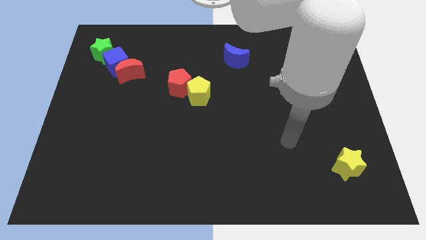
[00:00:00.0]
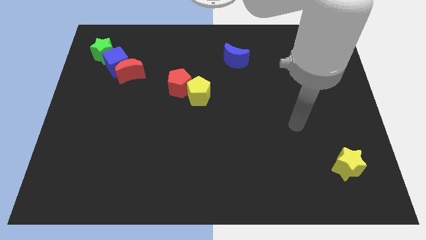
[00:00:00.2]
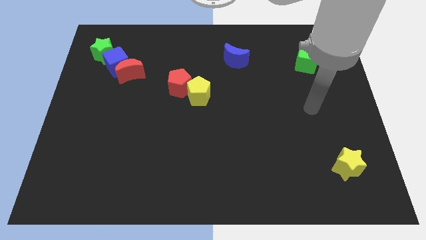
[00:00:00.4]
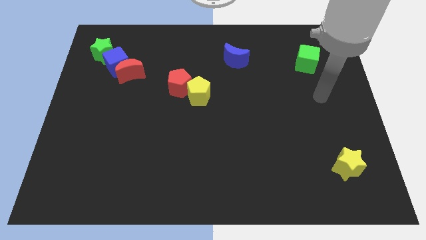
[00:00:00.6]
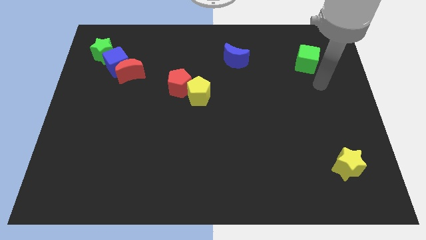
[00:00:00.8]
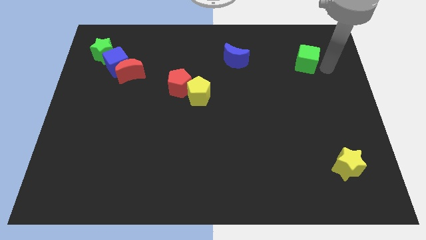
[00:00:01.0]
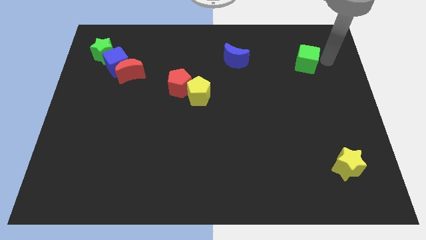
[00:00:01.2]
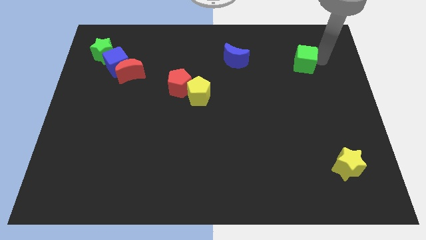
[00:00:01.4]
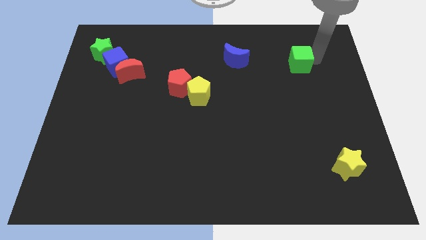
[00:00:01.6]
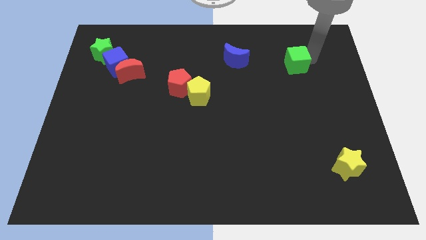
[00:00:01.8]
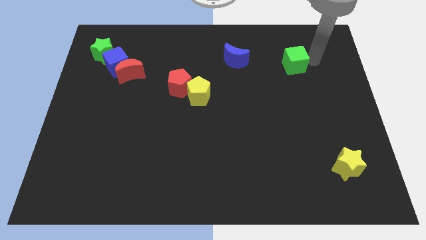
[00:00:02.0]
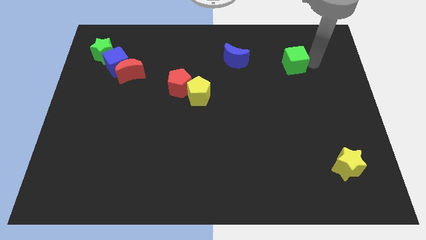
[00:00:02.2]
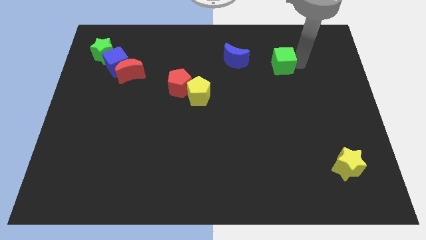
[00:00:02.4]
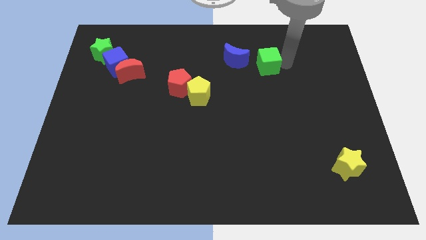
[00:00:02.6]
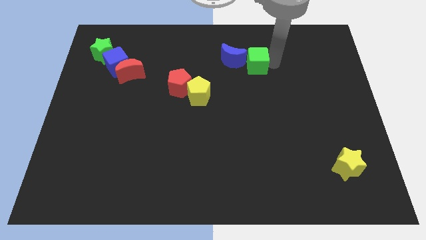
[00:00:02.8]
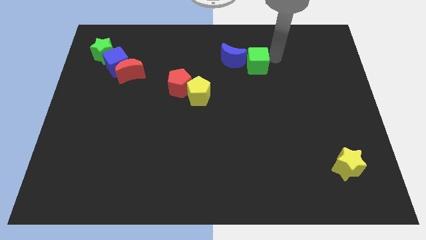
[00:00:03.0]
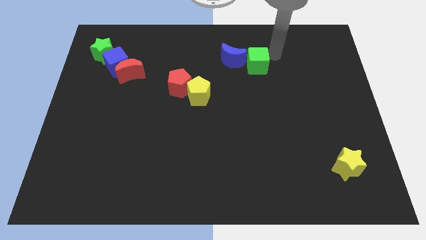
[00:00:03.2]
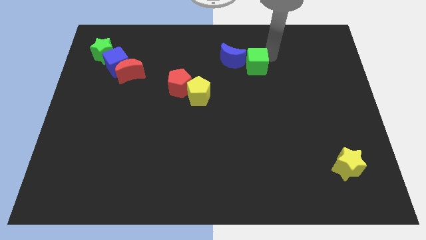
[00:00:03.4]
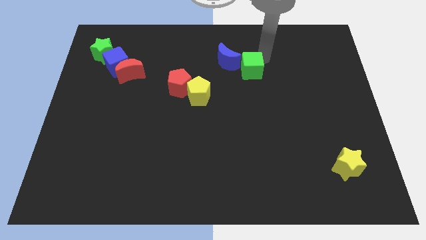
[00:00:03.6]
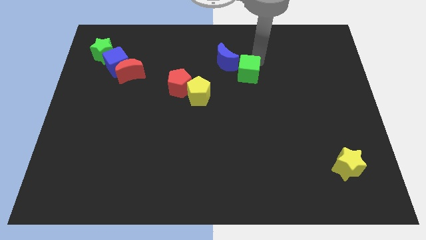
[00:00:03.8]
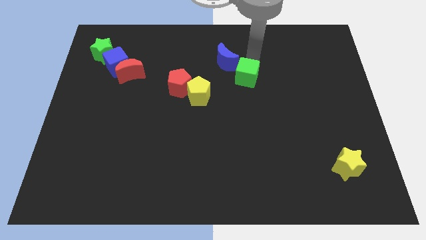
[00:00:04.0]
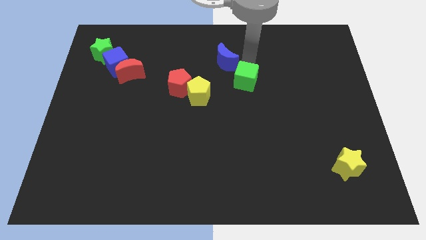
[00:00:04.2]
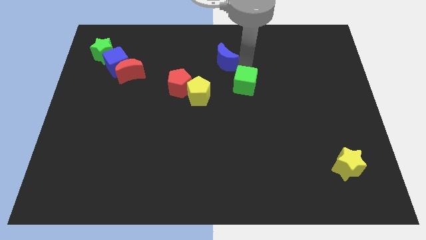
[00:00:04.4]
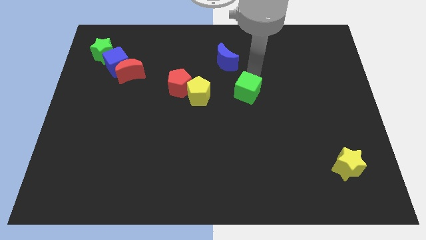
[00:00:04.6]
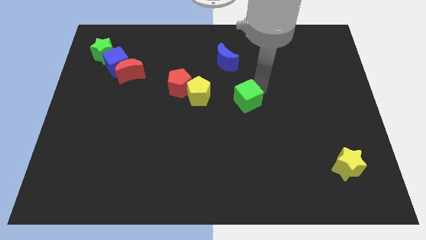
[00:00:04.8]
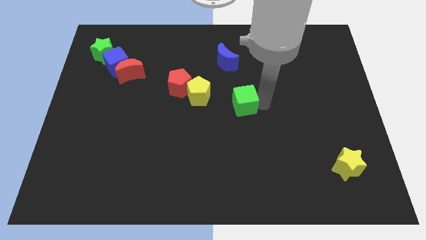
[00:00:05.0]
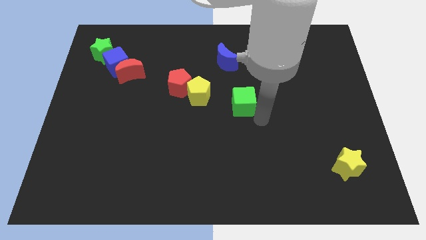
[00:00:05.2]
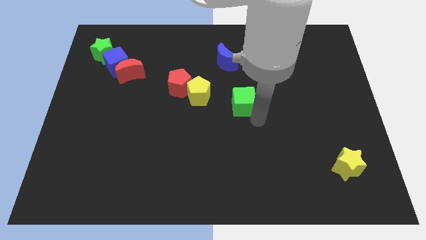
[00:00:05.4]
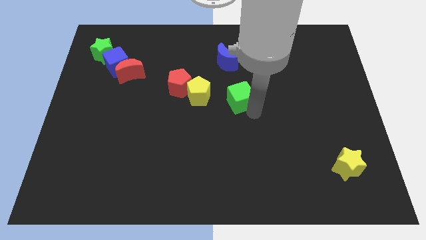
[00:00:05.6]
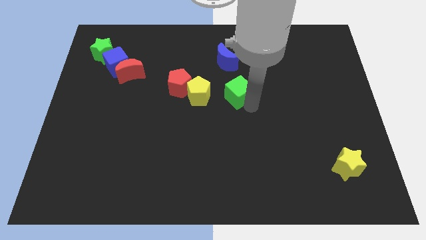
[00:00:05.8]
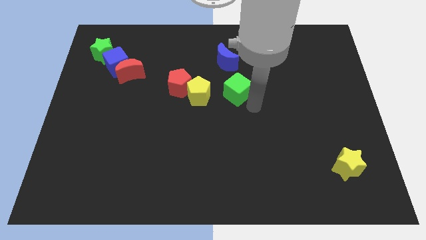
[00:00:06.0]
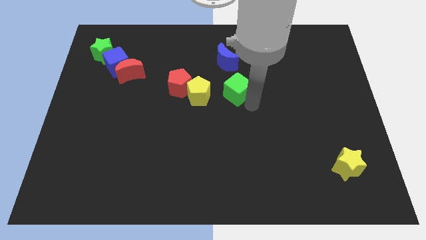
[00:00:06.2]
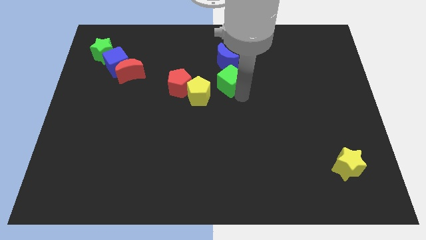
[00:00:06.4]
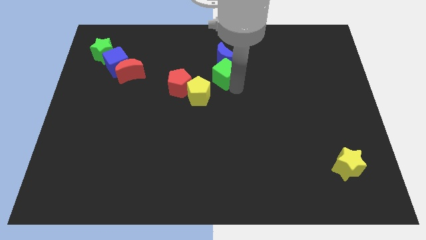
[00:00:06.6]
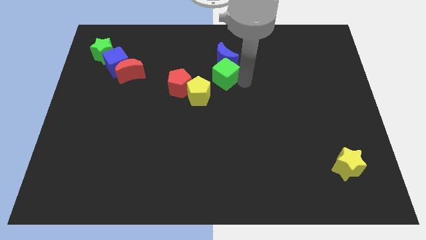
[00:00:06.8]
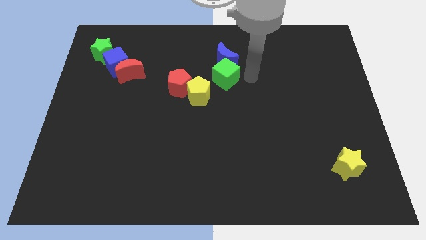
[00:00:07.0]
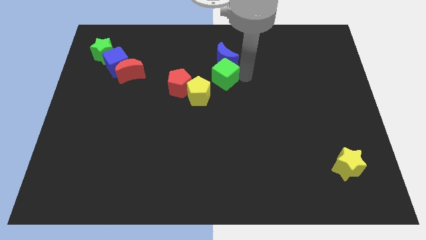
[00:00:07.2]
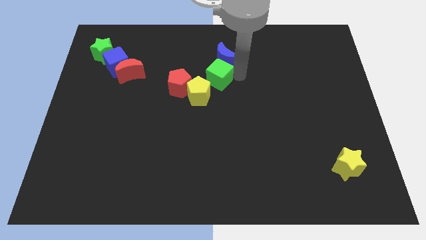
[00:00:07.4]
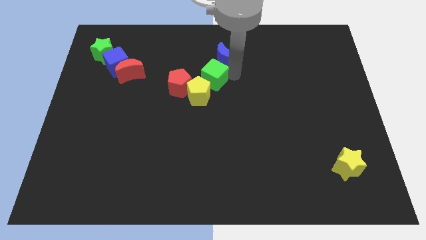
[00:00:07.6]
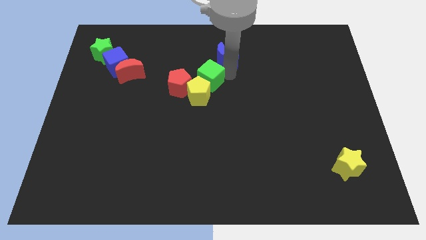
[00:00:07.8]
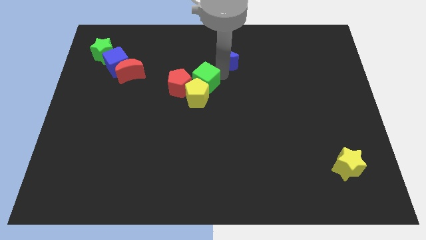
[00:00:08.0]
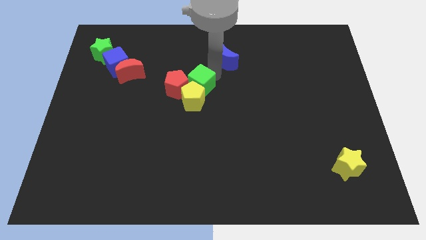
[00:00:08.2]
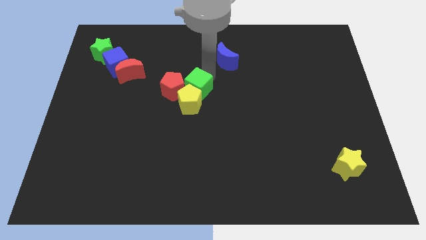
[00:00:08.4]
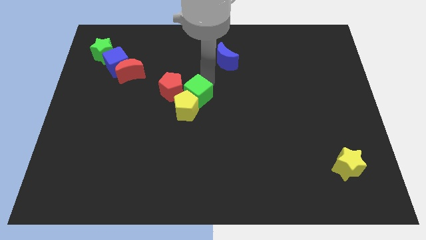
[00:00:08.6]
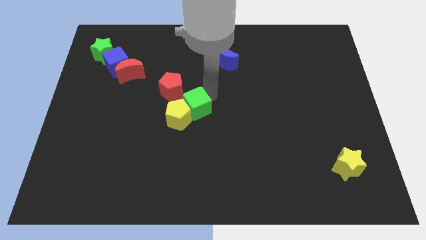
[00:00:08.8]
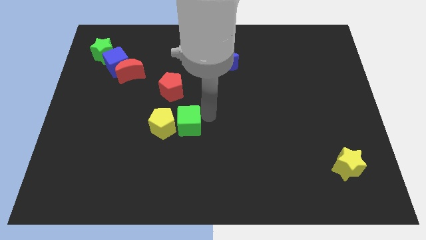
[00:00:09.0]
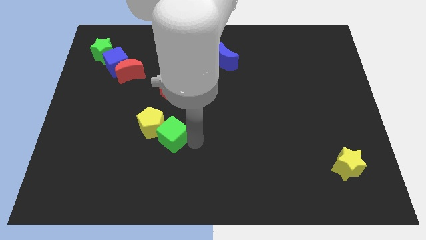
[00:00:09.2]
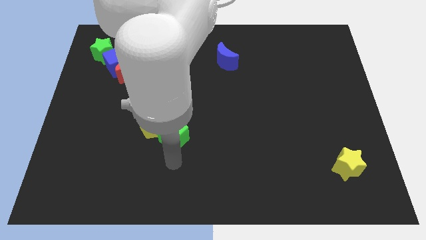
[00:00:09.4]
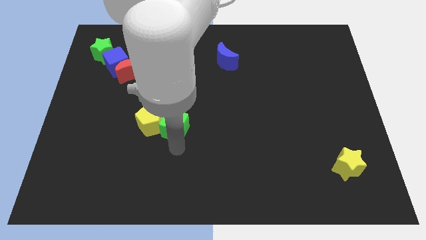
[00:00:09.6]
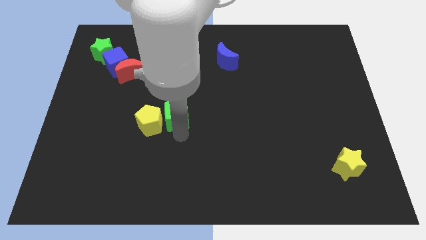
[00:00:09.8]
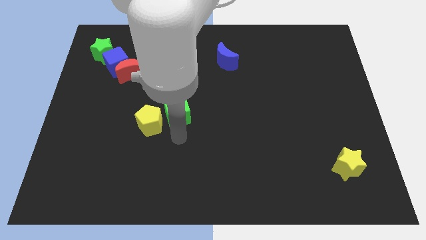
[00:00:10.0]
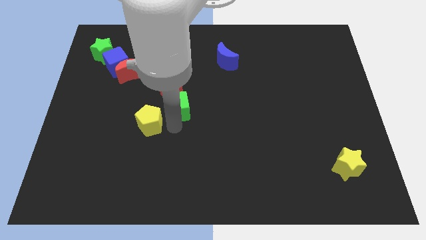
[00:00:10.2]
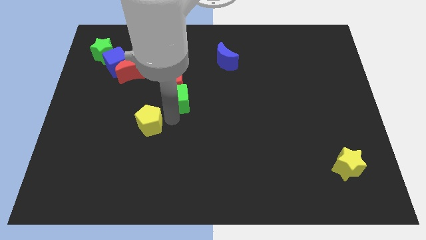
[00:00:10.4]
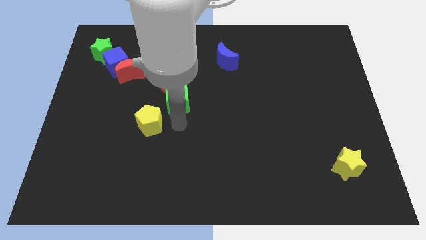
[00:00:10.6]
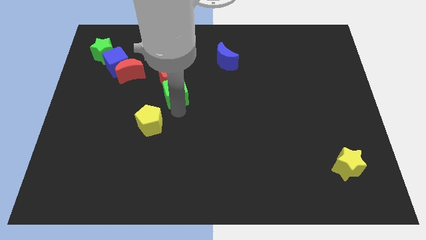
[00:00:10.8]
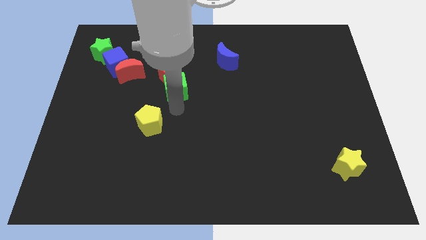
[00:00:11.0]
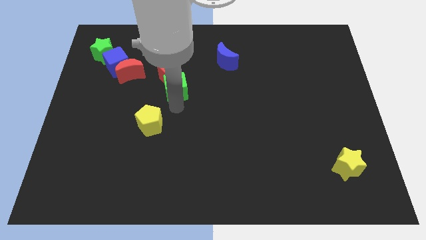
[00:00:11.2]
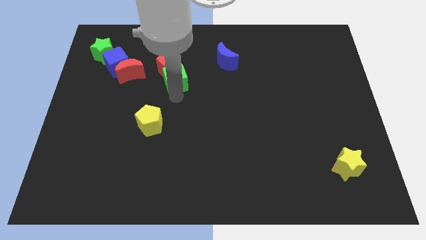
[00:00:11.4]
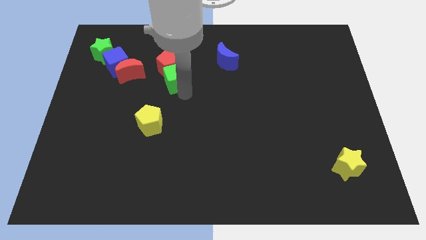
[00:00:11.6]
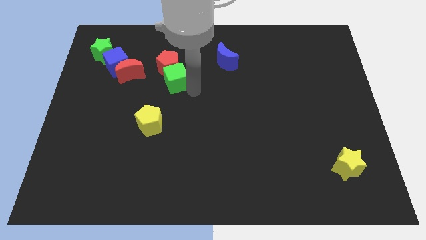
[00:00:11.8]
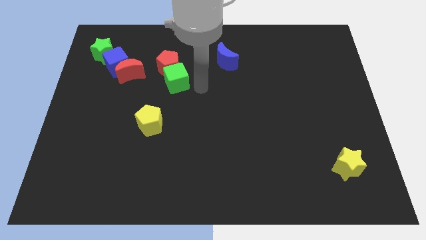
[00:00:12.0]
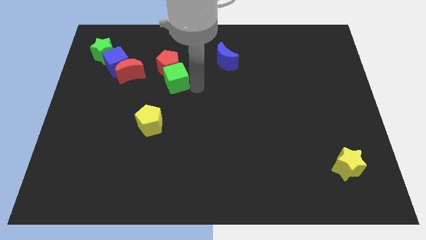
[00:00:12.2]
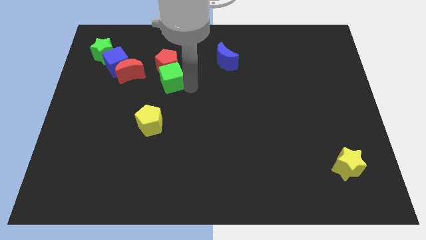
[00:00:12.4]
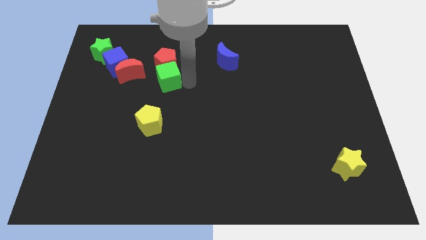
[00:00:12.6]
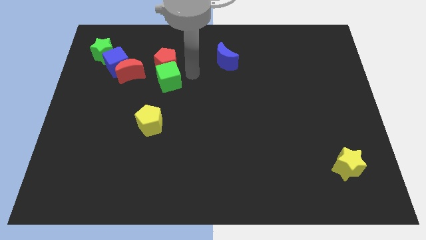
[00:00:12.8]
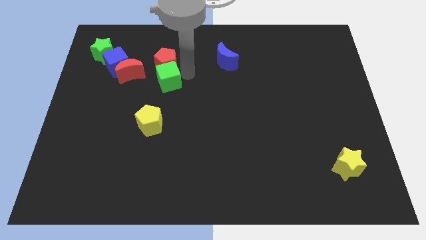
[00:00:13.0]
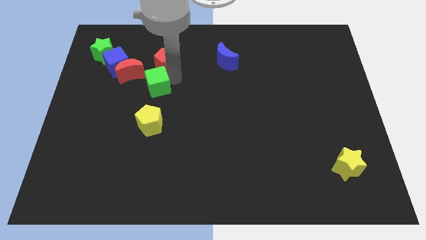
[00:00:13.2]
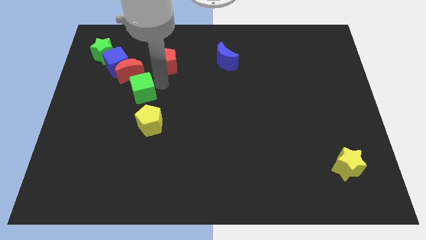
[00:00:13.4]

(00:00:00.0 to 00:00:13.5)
push the green cube to the bottom side of the red moon
